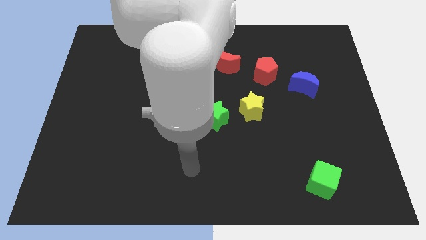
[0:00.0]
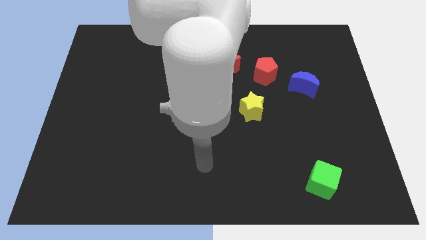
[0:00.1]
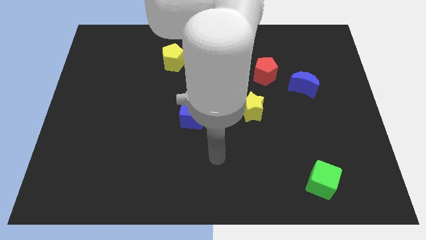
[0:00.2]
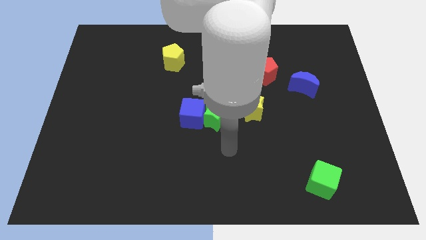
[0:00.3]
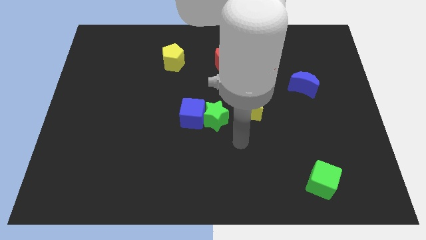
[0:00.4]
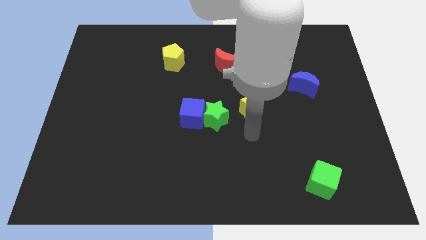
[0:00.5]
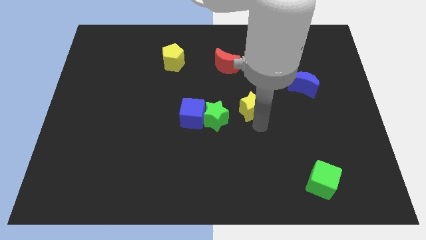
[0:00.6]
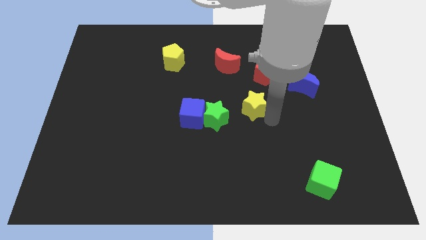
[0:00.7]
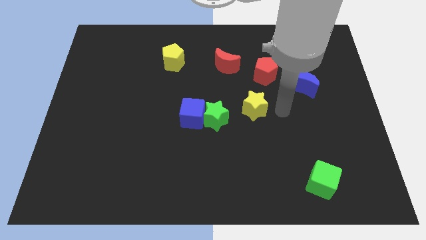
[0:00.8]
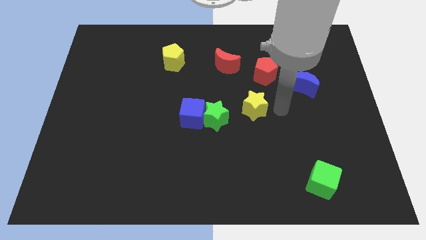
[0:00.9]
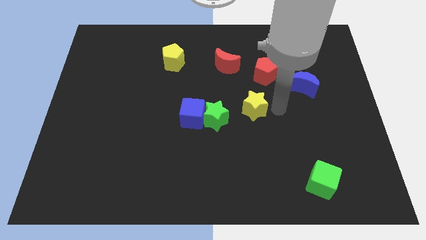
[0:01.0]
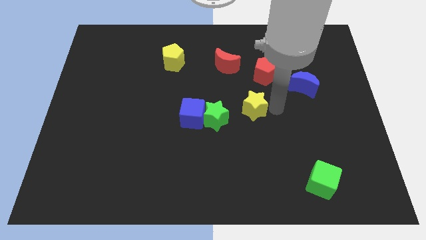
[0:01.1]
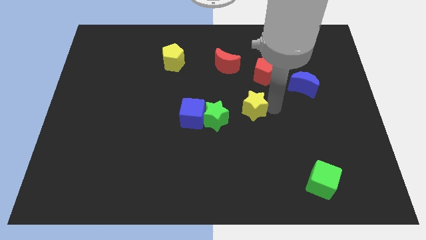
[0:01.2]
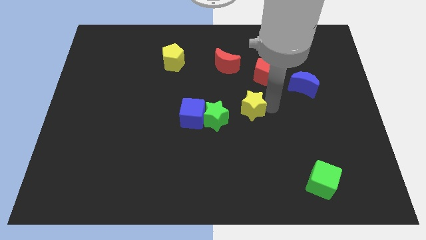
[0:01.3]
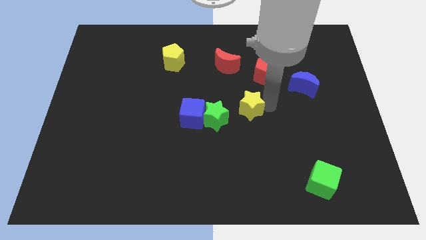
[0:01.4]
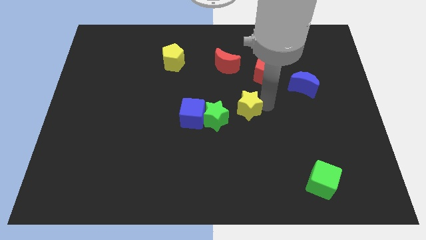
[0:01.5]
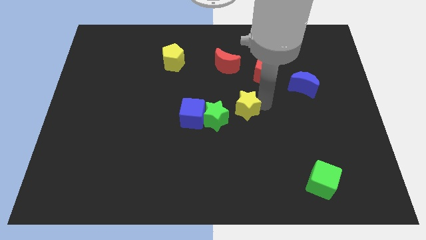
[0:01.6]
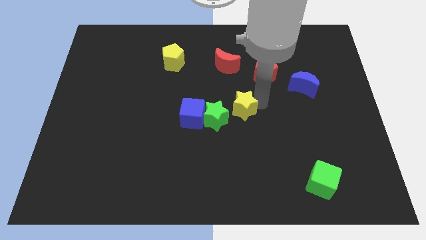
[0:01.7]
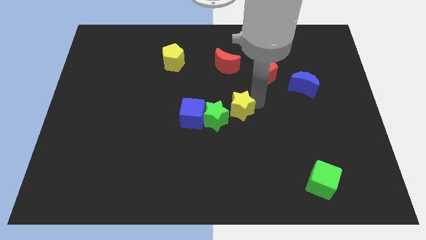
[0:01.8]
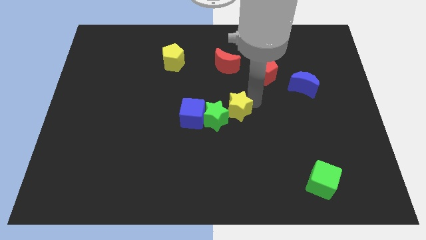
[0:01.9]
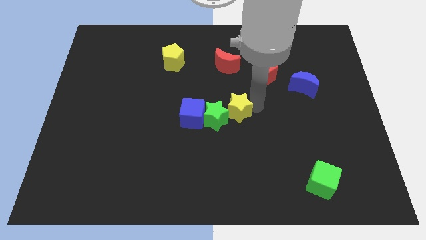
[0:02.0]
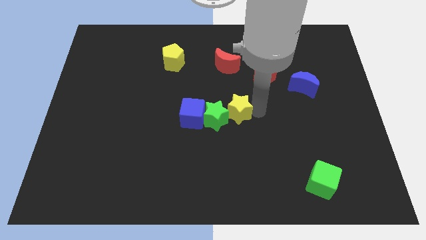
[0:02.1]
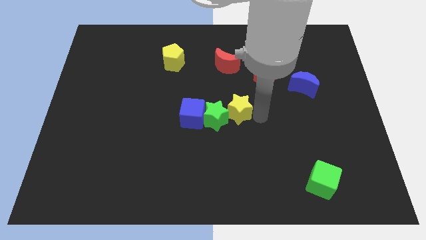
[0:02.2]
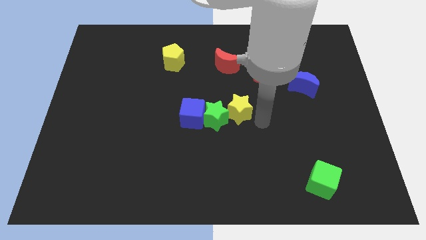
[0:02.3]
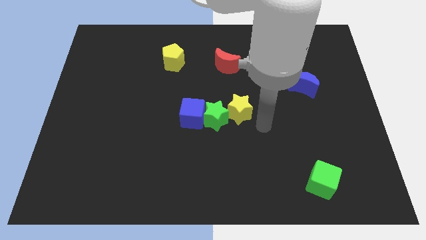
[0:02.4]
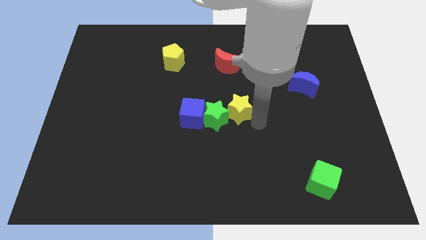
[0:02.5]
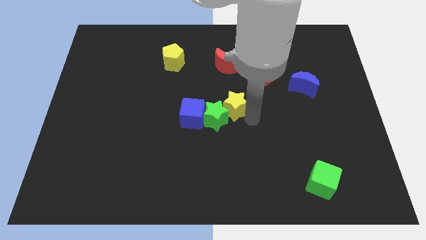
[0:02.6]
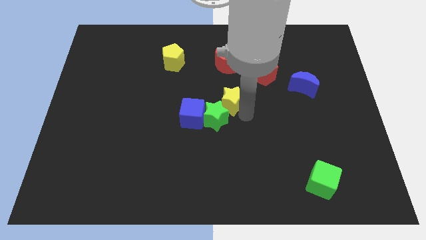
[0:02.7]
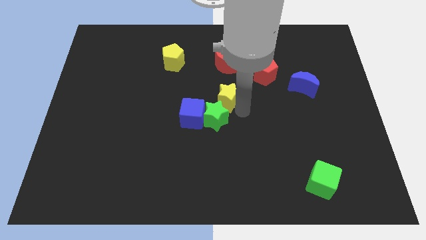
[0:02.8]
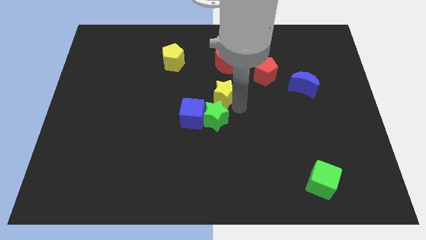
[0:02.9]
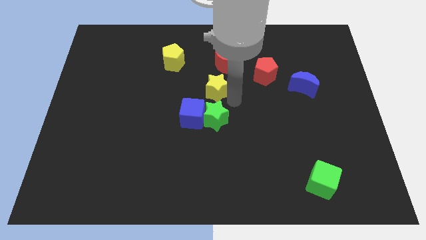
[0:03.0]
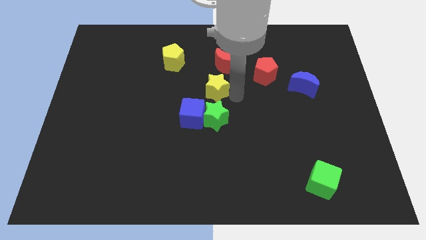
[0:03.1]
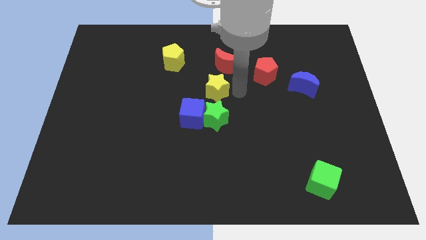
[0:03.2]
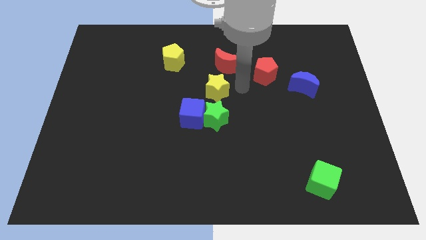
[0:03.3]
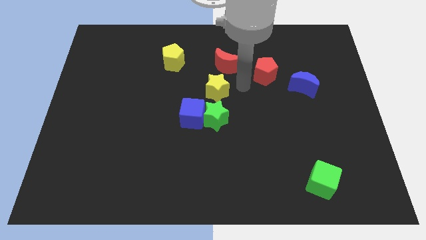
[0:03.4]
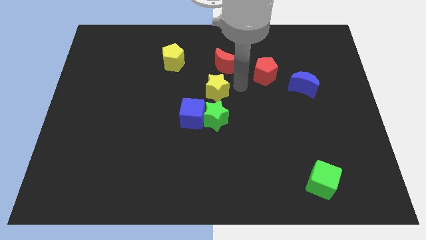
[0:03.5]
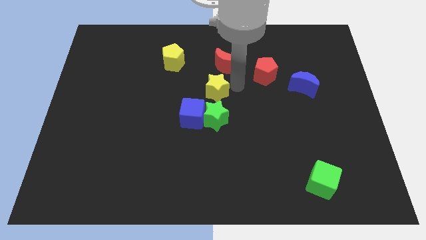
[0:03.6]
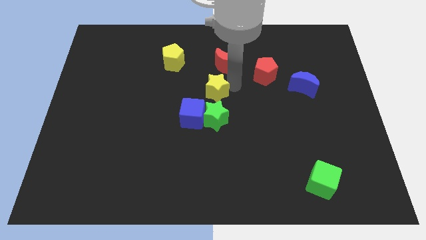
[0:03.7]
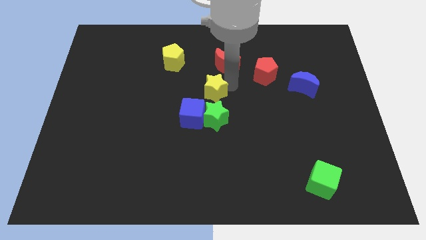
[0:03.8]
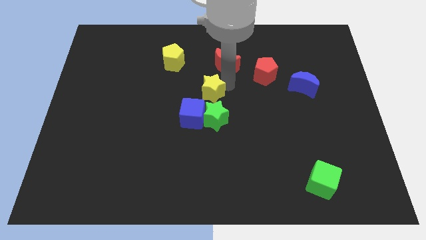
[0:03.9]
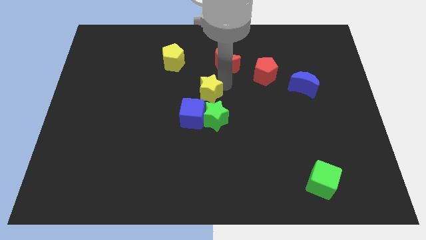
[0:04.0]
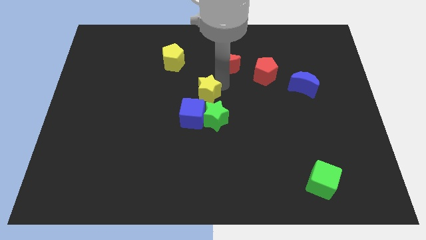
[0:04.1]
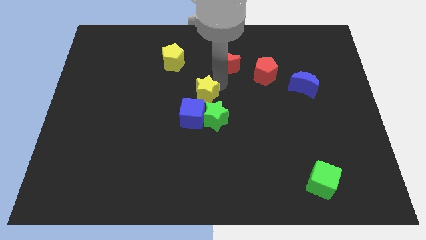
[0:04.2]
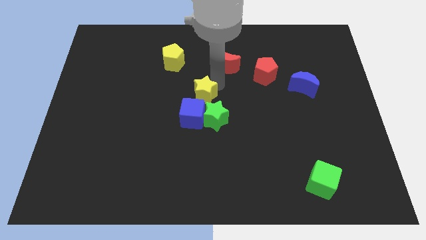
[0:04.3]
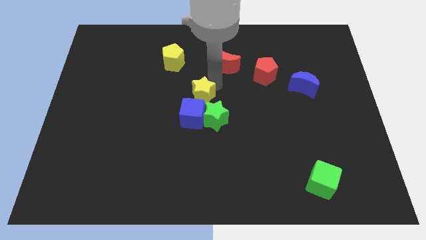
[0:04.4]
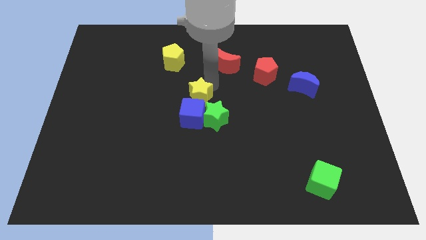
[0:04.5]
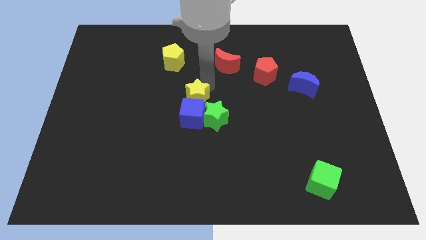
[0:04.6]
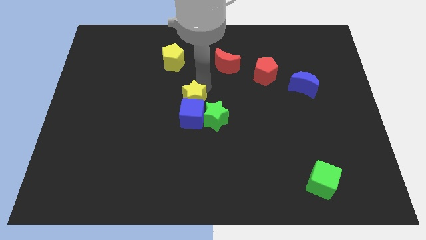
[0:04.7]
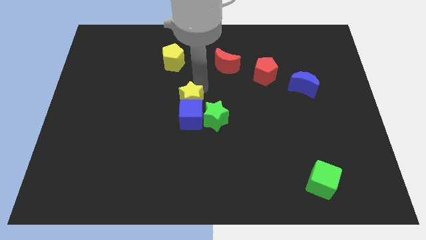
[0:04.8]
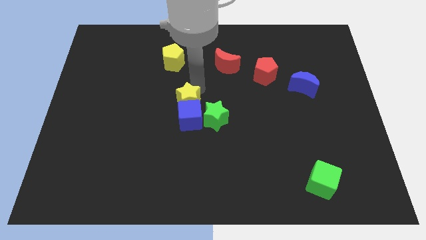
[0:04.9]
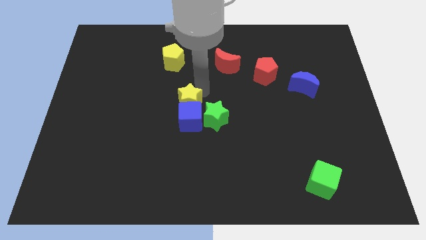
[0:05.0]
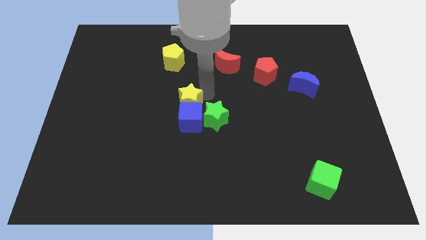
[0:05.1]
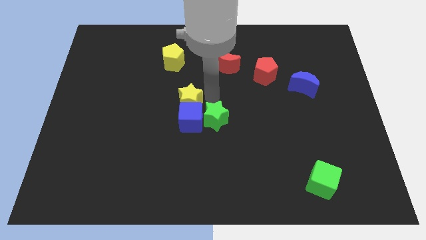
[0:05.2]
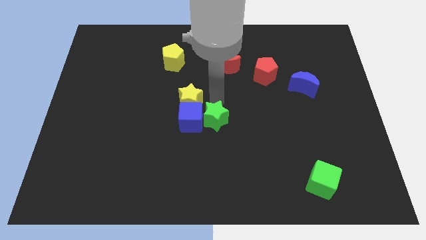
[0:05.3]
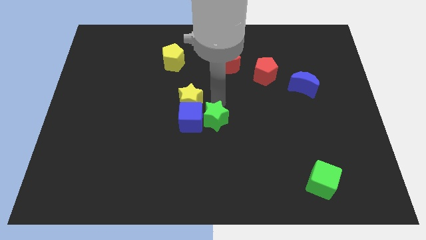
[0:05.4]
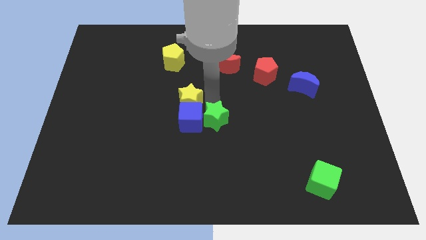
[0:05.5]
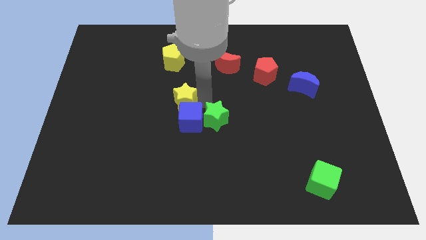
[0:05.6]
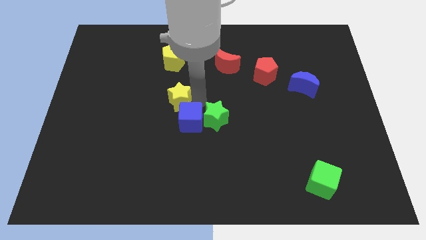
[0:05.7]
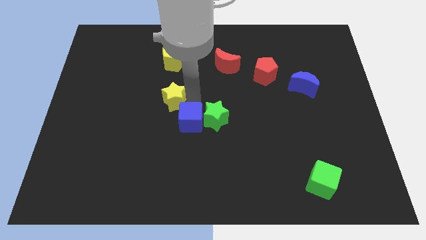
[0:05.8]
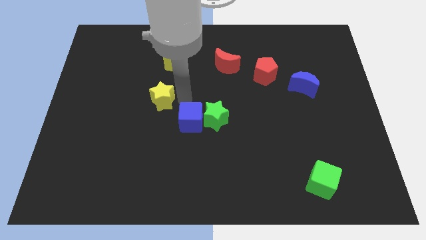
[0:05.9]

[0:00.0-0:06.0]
slide the yellow star left

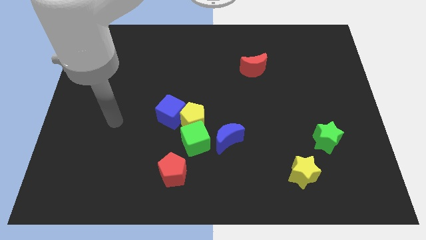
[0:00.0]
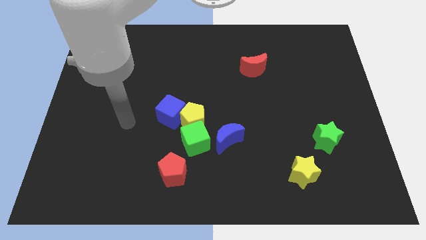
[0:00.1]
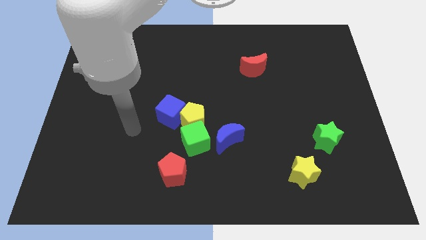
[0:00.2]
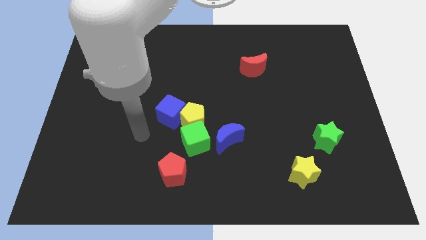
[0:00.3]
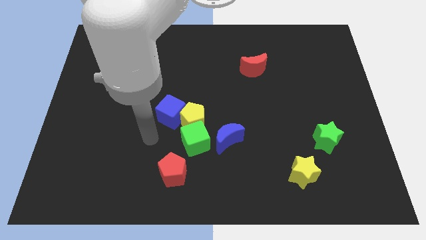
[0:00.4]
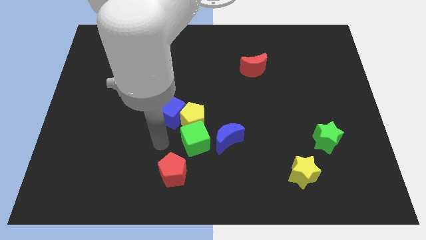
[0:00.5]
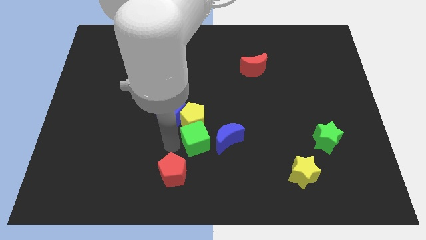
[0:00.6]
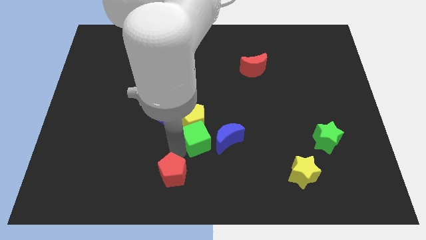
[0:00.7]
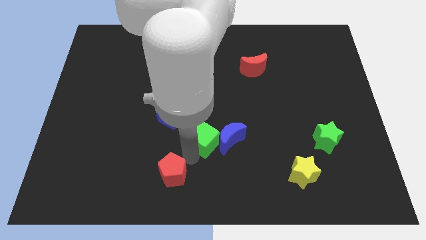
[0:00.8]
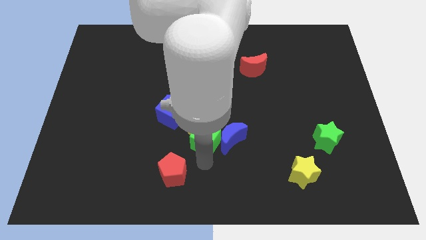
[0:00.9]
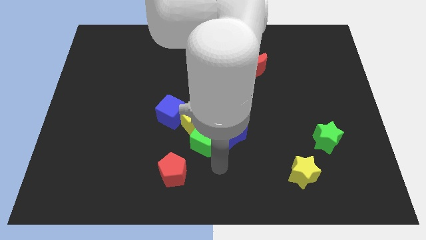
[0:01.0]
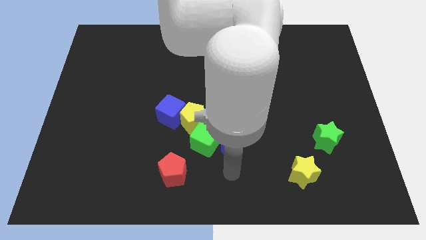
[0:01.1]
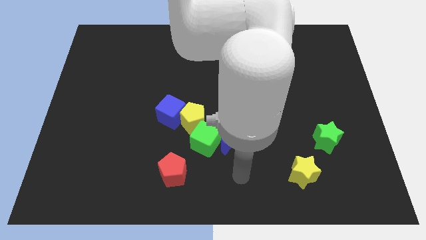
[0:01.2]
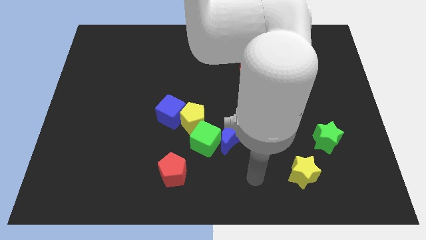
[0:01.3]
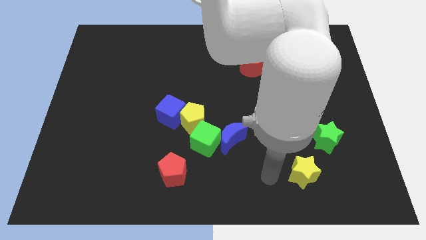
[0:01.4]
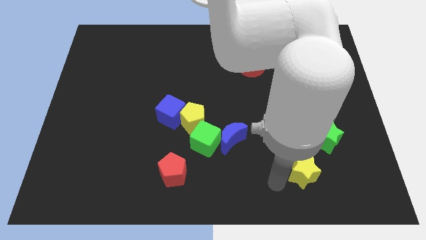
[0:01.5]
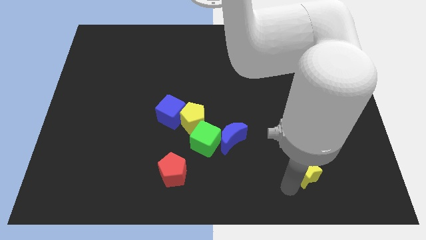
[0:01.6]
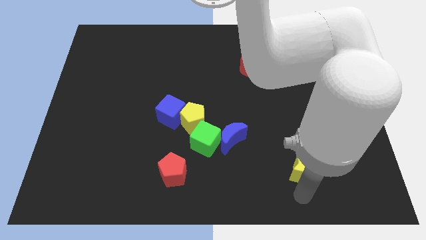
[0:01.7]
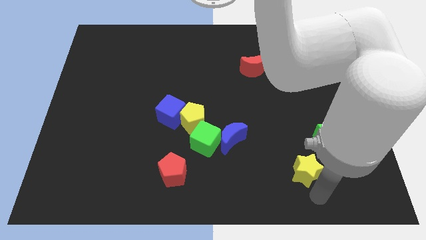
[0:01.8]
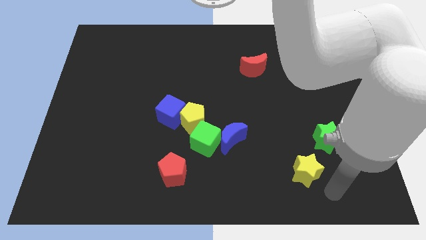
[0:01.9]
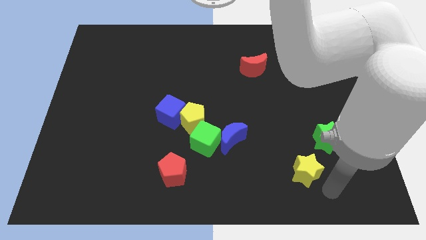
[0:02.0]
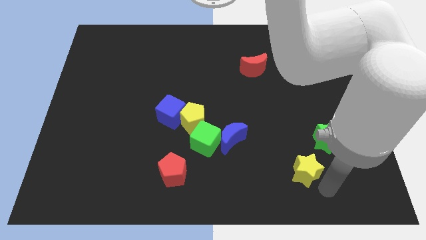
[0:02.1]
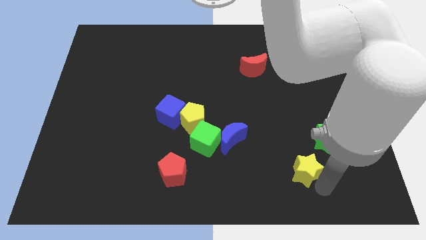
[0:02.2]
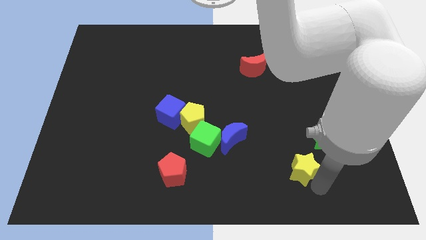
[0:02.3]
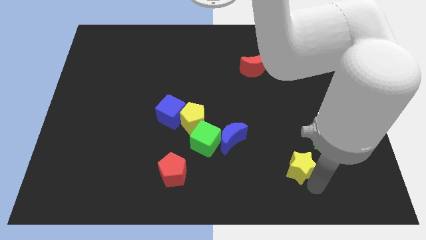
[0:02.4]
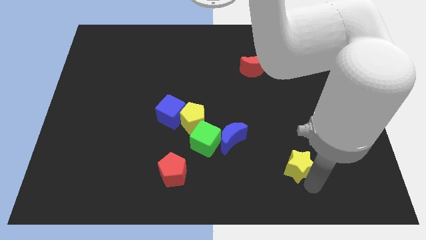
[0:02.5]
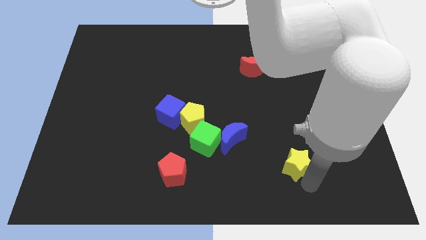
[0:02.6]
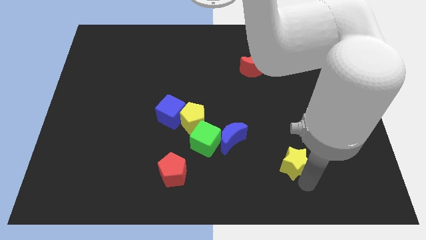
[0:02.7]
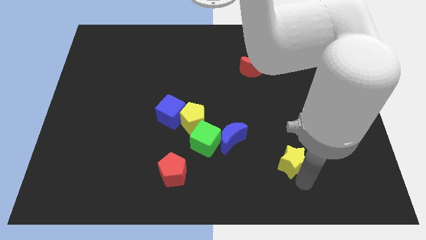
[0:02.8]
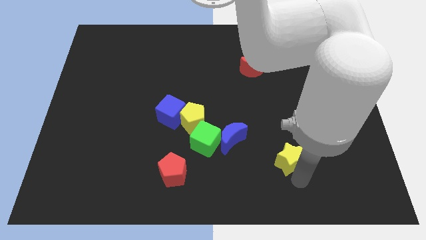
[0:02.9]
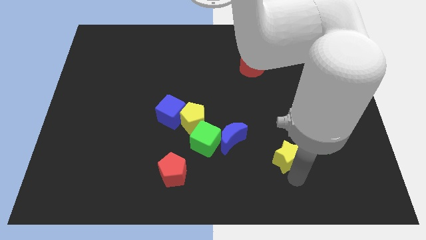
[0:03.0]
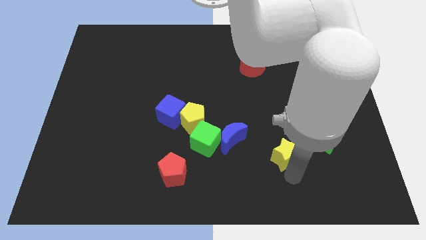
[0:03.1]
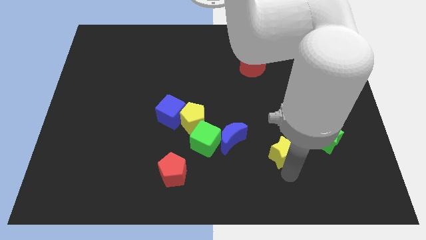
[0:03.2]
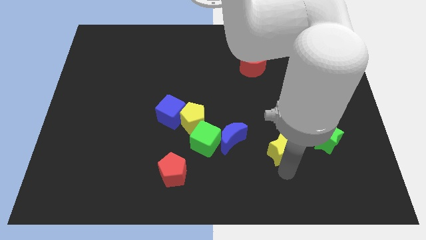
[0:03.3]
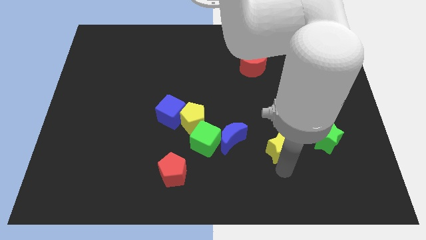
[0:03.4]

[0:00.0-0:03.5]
slide the yellow star a little upwards and left diagonally
